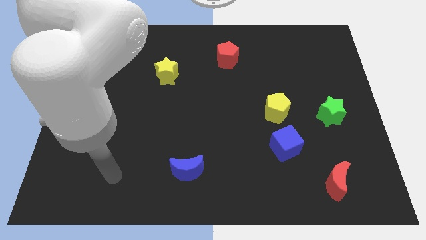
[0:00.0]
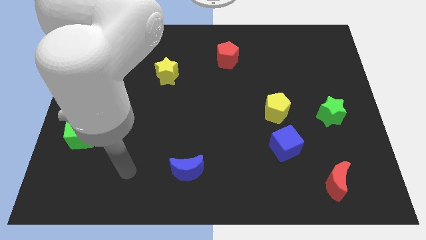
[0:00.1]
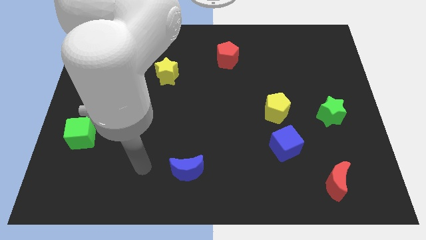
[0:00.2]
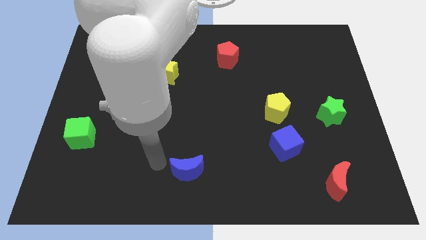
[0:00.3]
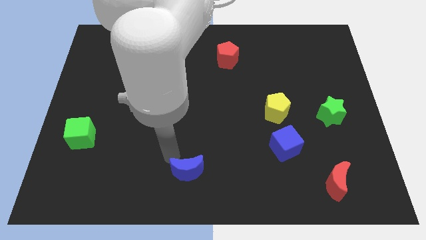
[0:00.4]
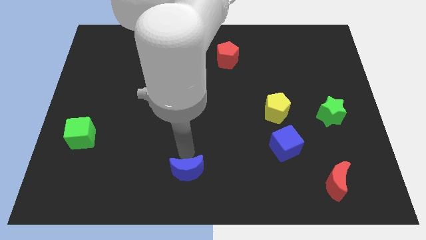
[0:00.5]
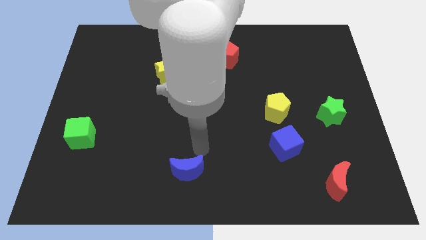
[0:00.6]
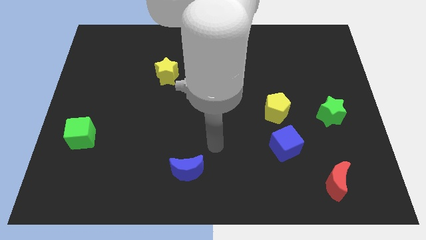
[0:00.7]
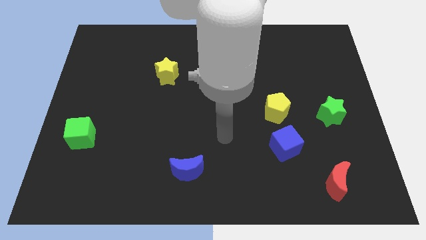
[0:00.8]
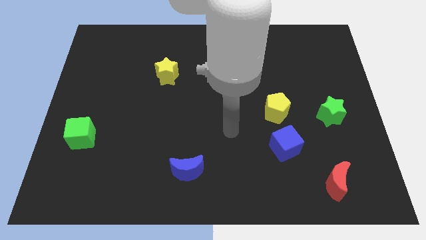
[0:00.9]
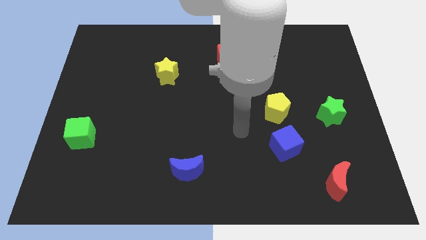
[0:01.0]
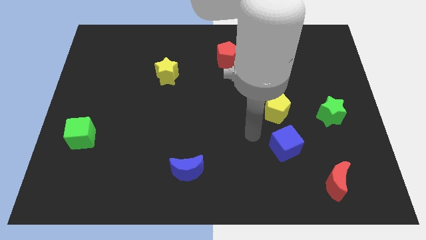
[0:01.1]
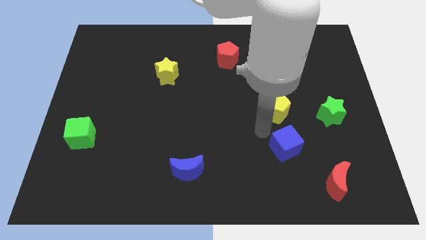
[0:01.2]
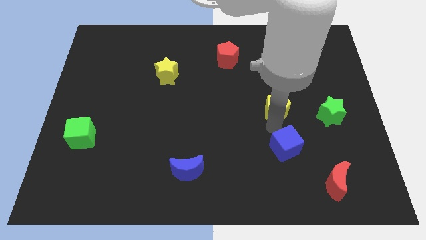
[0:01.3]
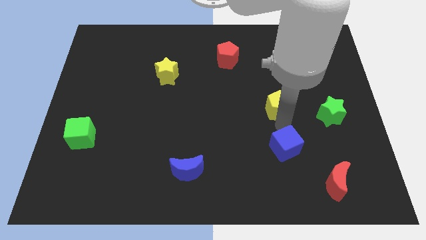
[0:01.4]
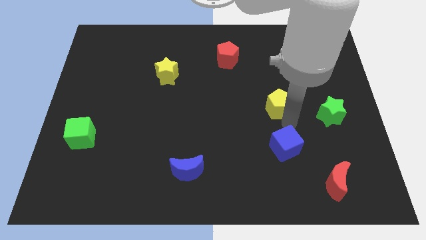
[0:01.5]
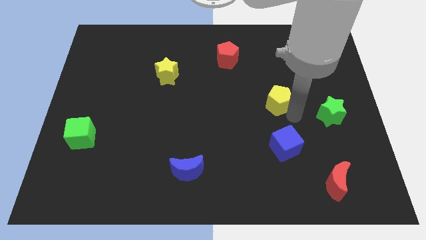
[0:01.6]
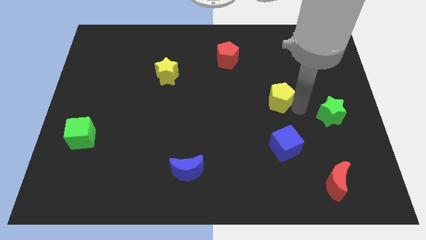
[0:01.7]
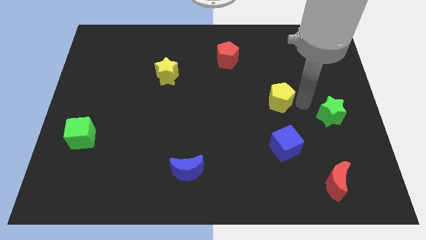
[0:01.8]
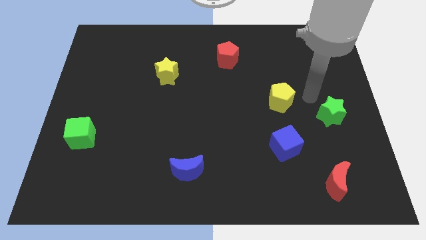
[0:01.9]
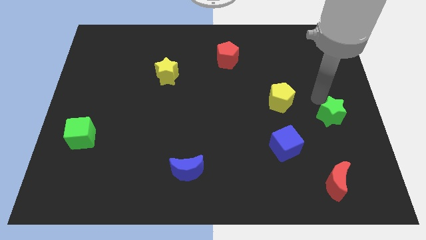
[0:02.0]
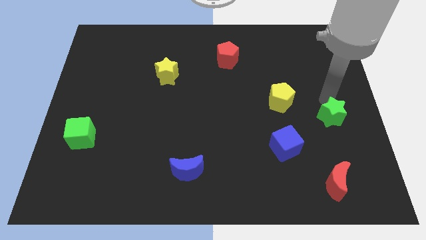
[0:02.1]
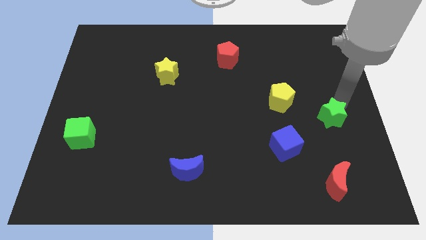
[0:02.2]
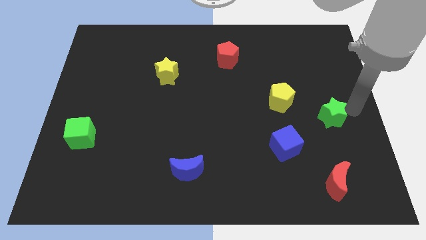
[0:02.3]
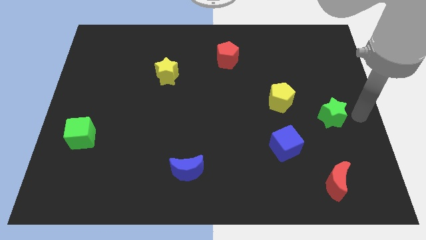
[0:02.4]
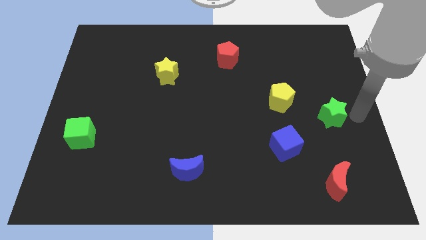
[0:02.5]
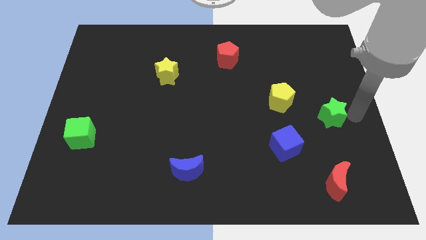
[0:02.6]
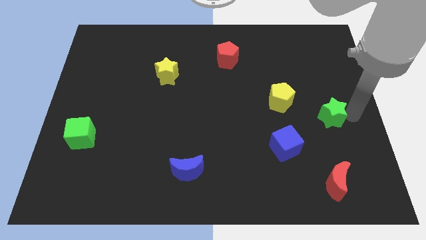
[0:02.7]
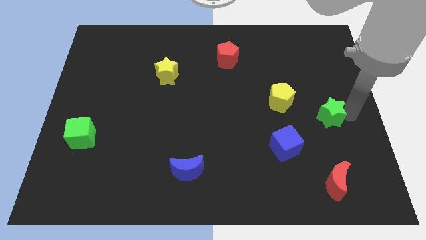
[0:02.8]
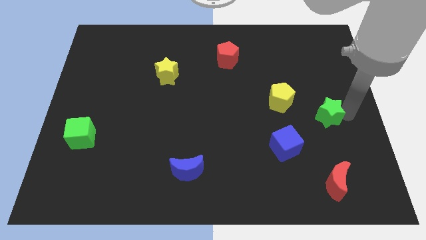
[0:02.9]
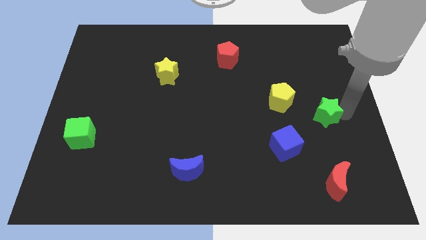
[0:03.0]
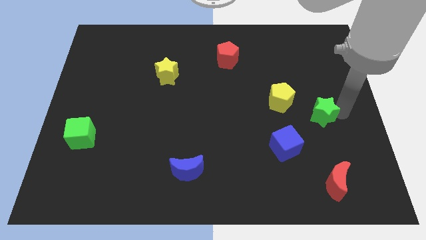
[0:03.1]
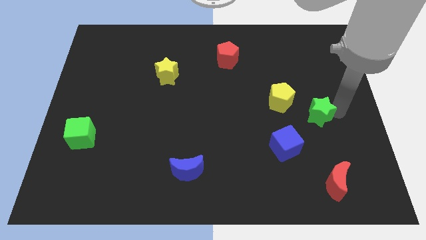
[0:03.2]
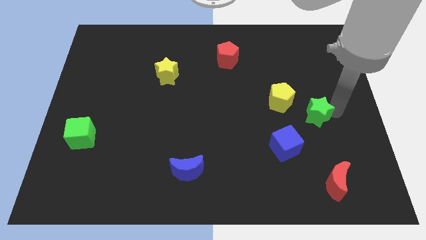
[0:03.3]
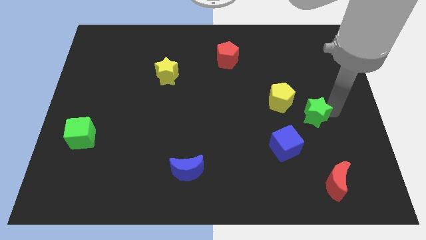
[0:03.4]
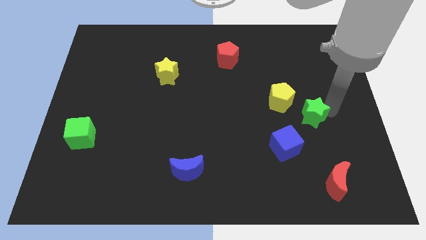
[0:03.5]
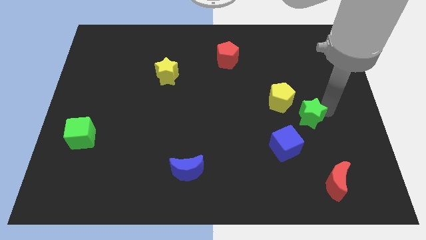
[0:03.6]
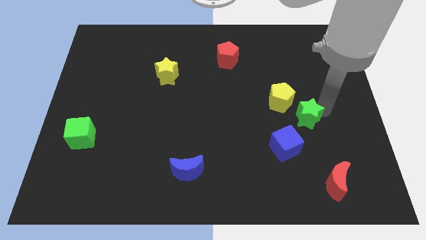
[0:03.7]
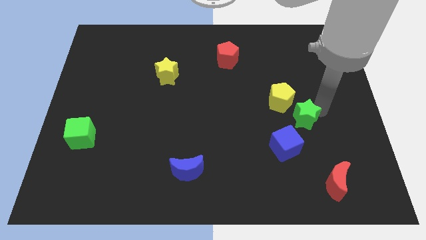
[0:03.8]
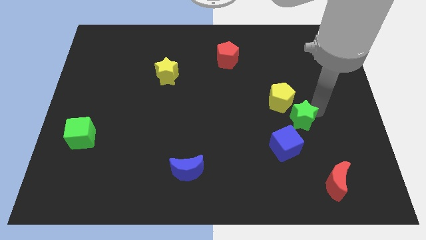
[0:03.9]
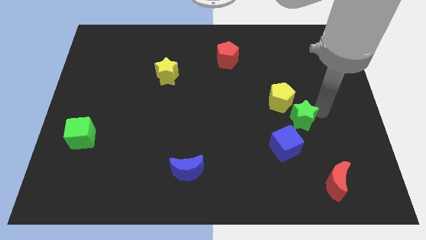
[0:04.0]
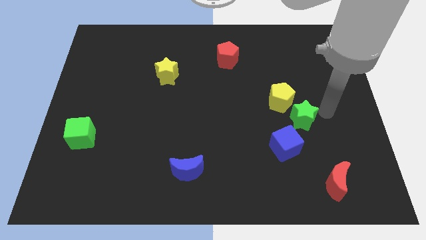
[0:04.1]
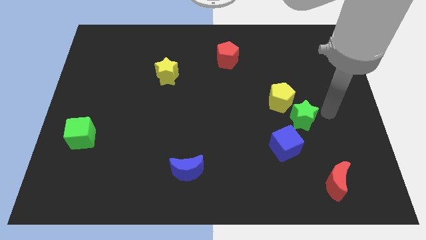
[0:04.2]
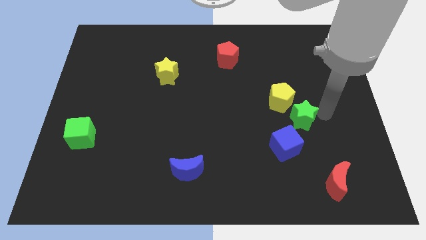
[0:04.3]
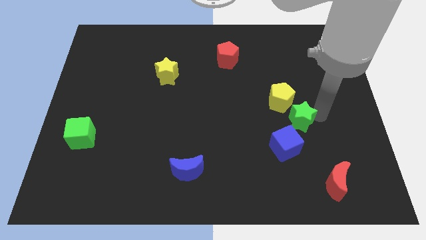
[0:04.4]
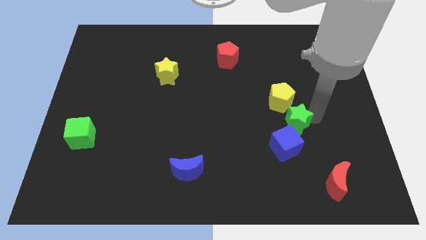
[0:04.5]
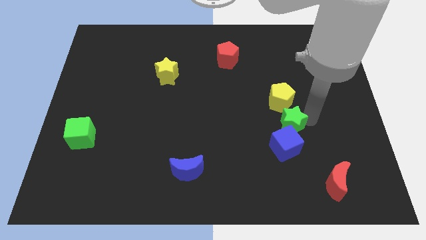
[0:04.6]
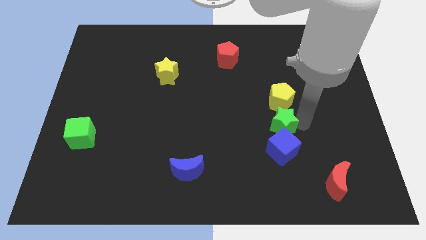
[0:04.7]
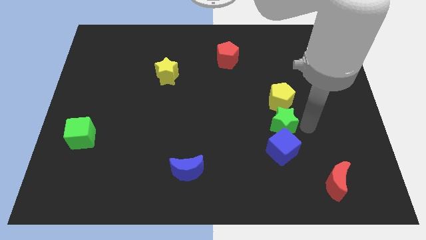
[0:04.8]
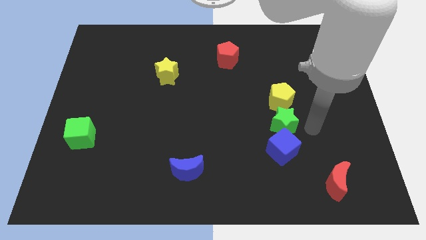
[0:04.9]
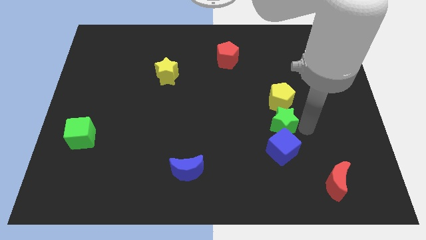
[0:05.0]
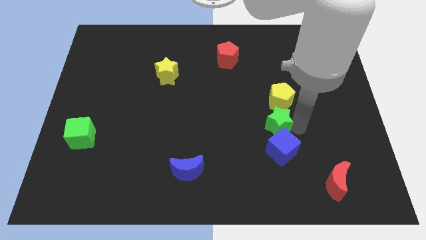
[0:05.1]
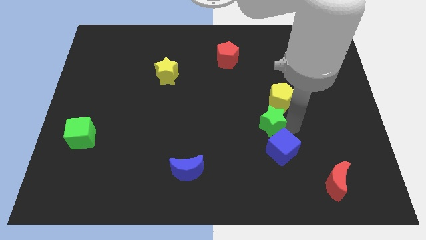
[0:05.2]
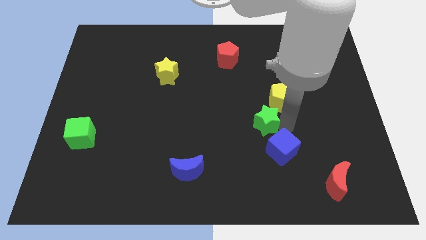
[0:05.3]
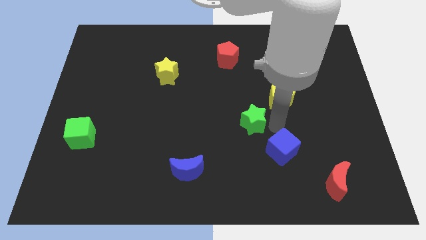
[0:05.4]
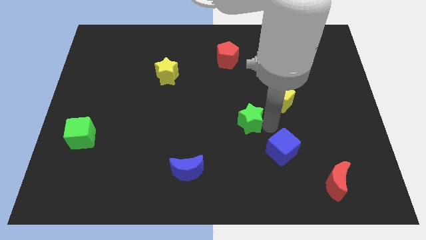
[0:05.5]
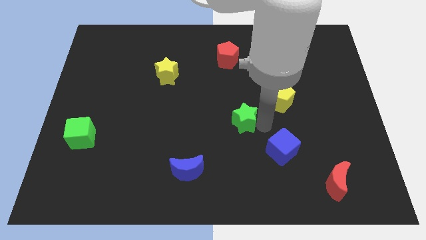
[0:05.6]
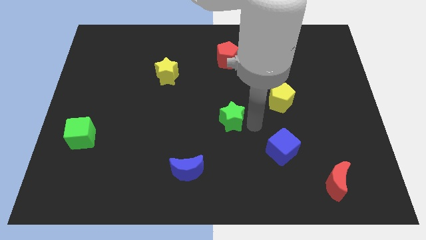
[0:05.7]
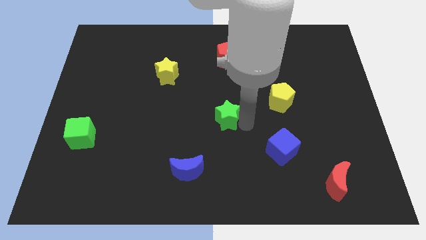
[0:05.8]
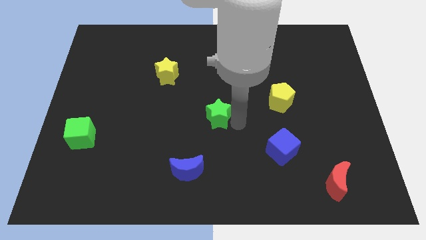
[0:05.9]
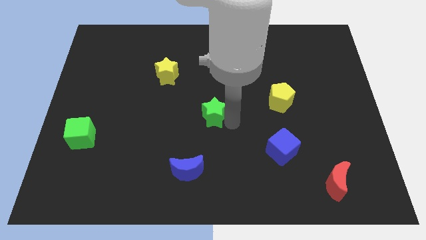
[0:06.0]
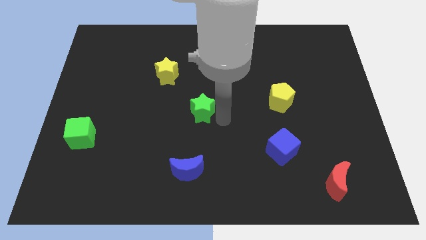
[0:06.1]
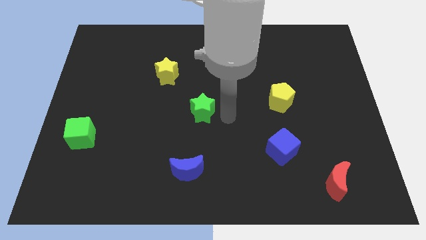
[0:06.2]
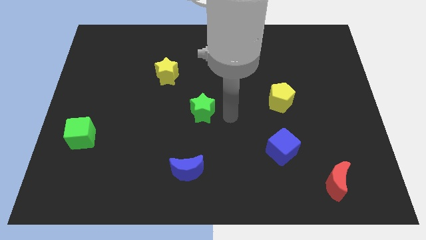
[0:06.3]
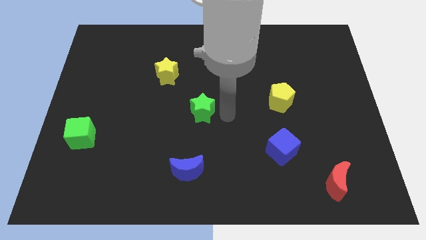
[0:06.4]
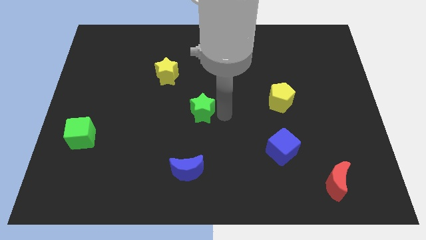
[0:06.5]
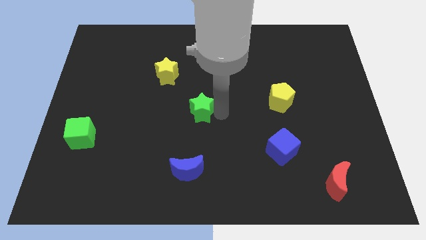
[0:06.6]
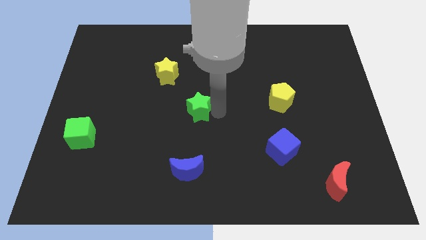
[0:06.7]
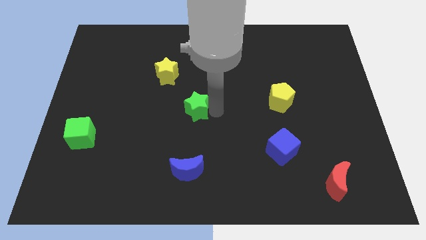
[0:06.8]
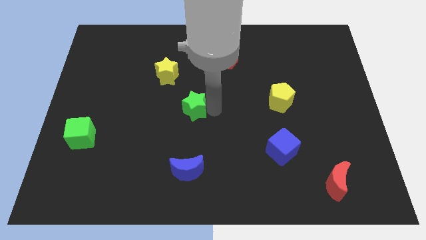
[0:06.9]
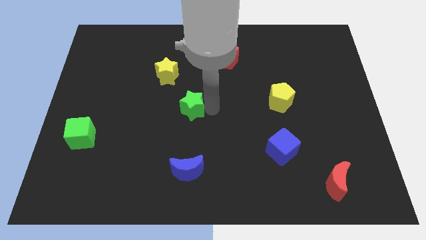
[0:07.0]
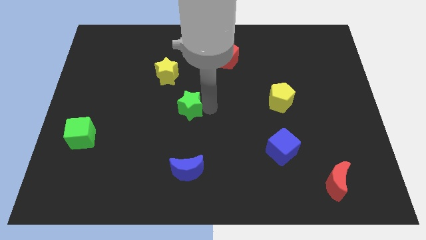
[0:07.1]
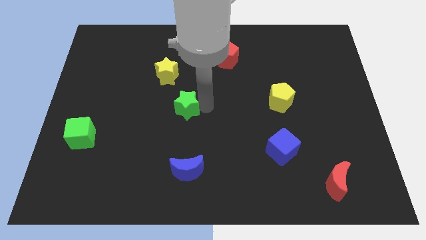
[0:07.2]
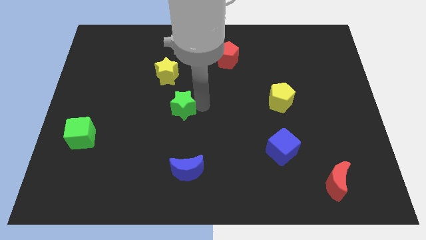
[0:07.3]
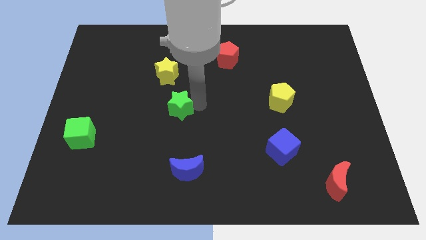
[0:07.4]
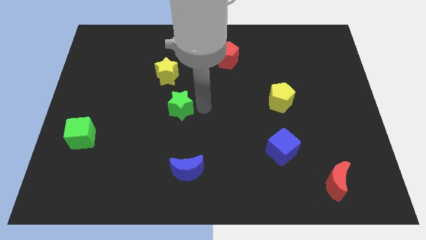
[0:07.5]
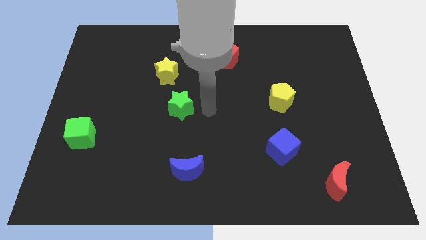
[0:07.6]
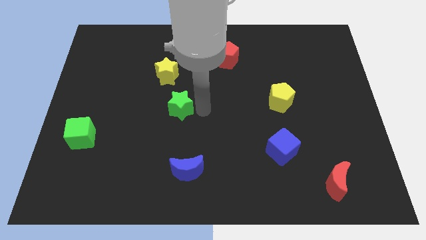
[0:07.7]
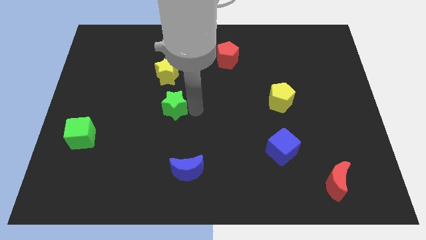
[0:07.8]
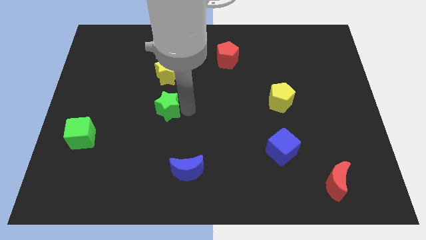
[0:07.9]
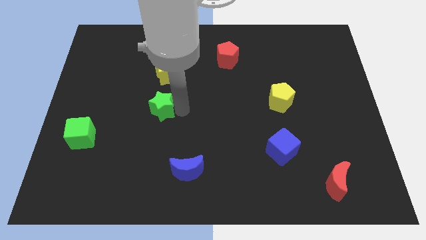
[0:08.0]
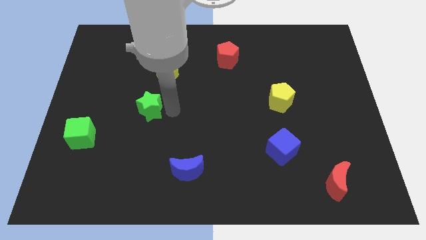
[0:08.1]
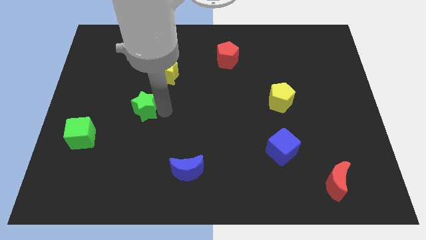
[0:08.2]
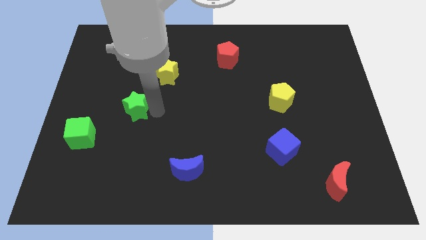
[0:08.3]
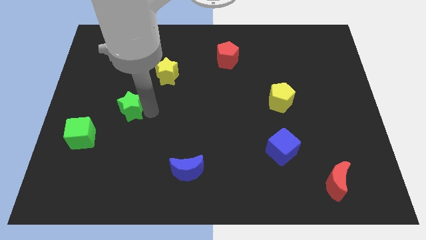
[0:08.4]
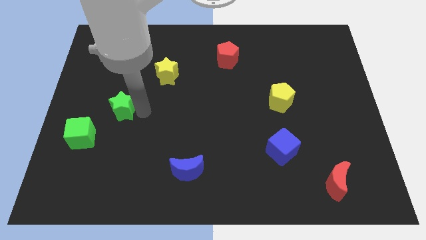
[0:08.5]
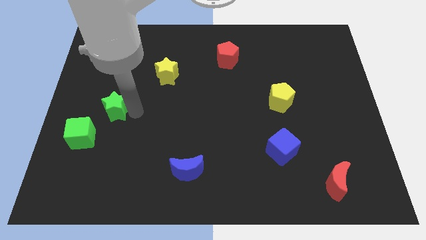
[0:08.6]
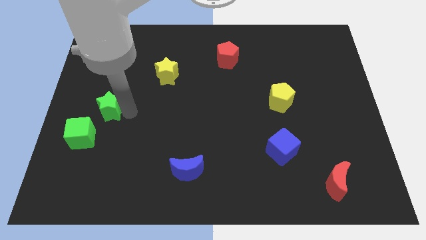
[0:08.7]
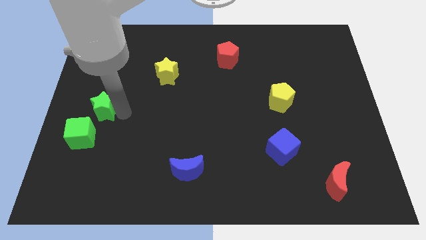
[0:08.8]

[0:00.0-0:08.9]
put the green star to the left side
